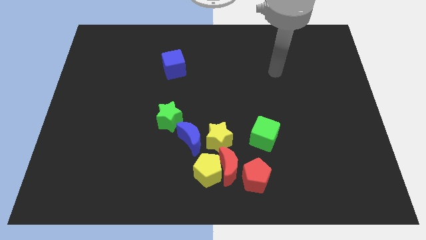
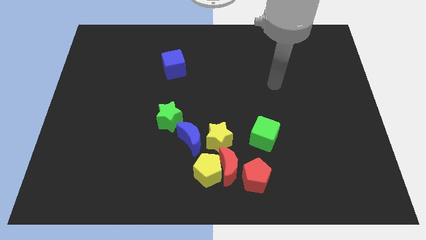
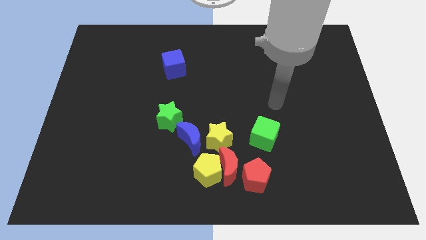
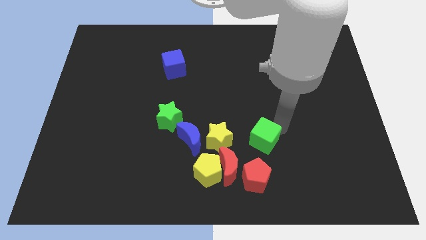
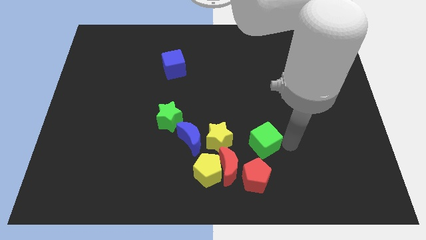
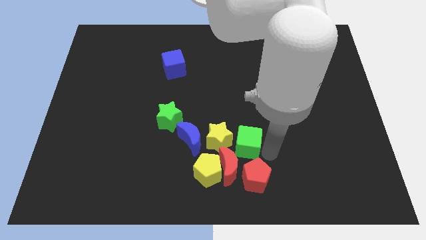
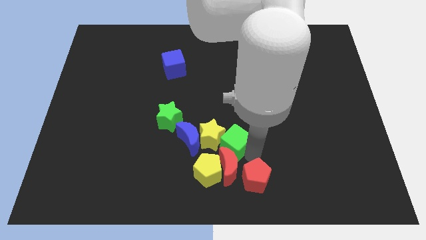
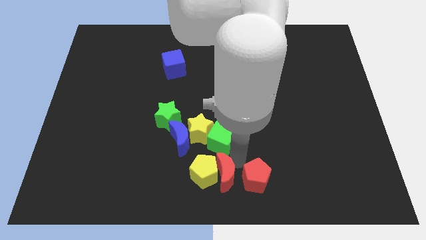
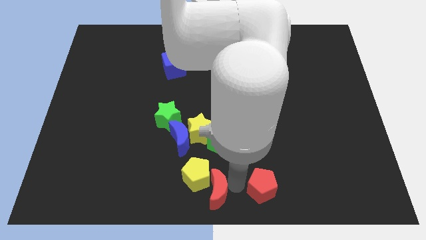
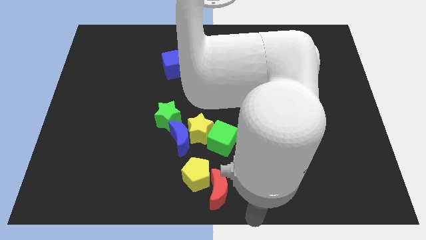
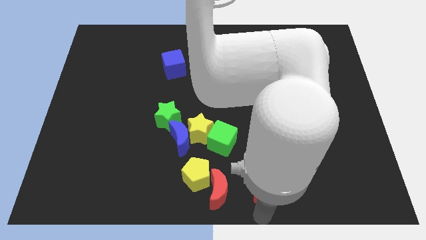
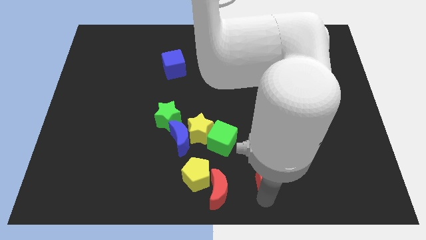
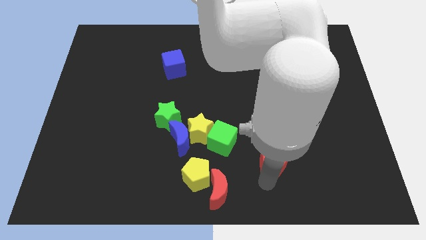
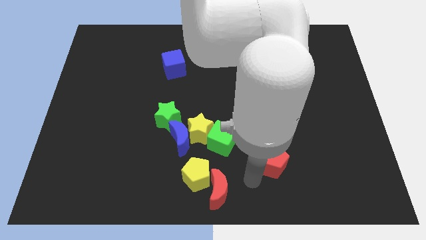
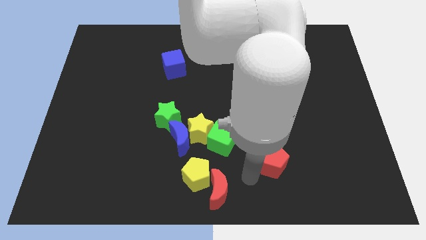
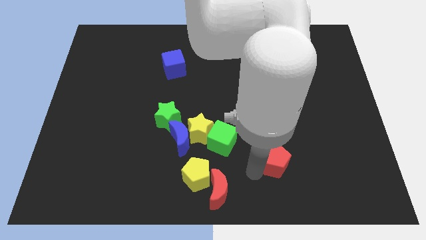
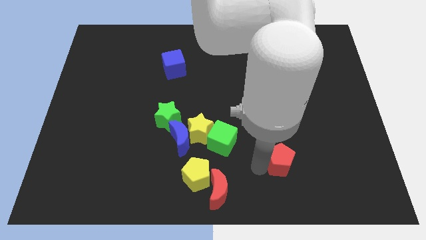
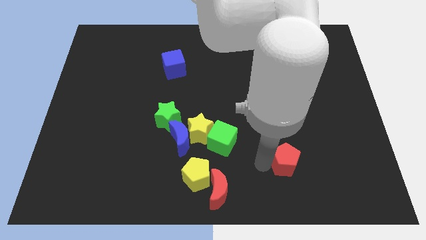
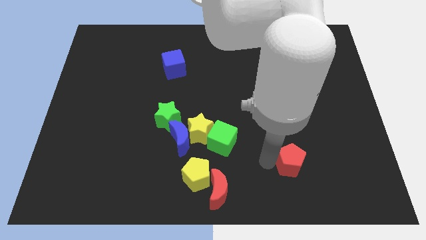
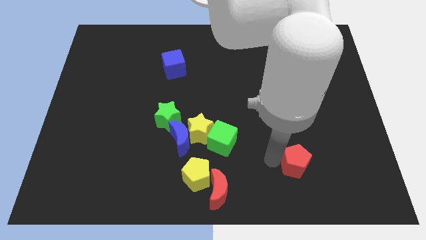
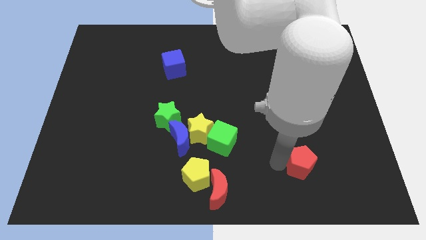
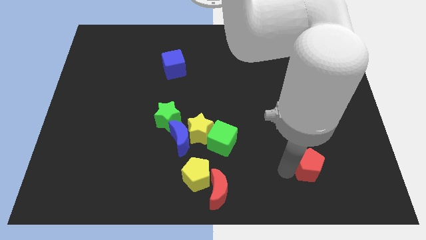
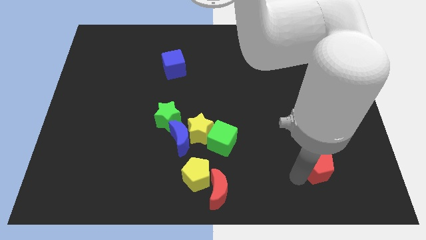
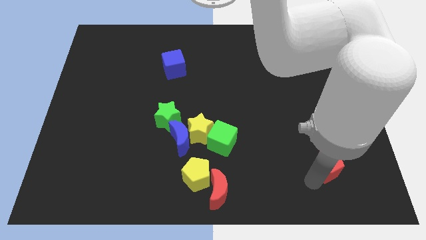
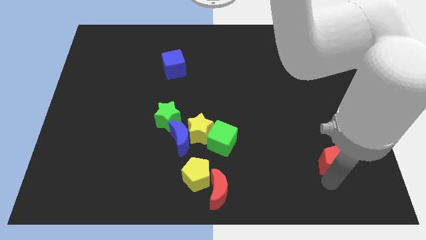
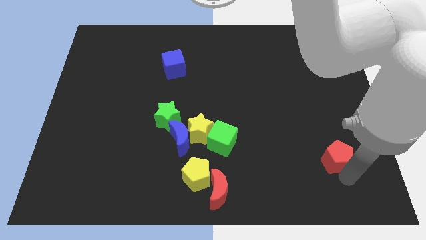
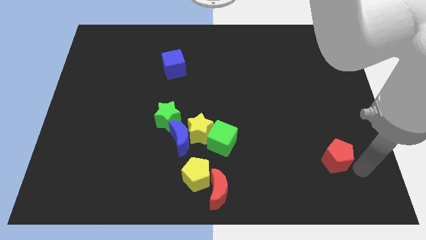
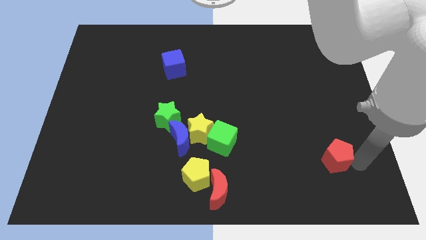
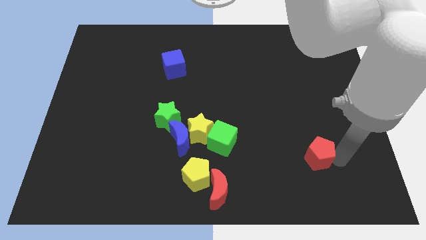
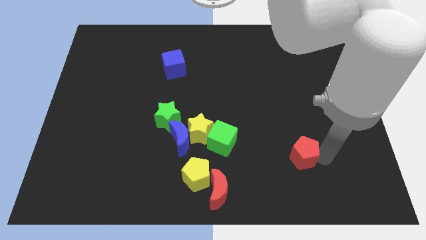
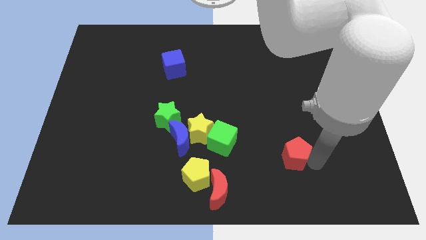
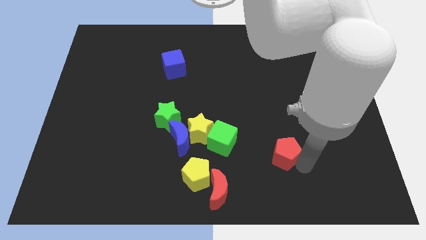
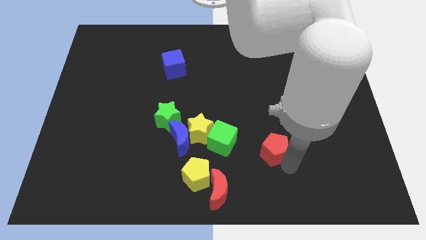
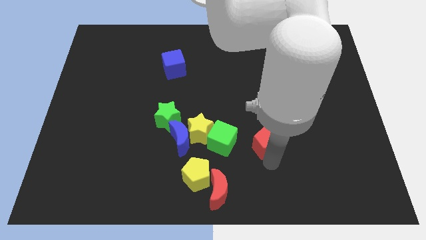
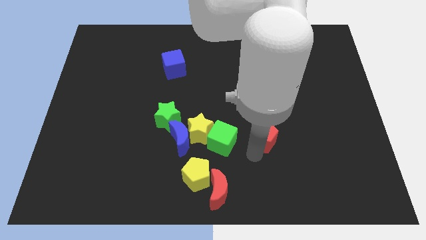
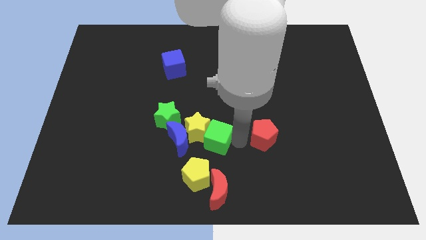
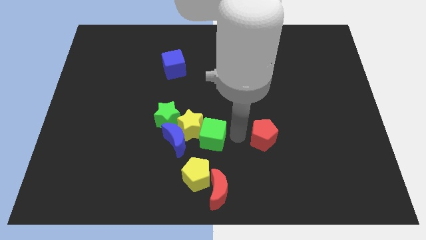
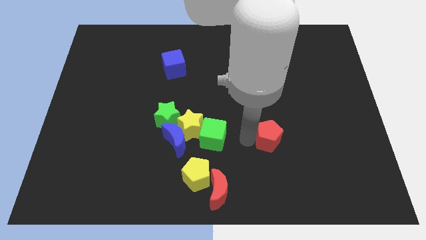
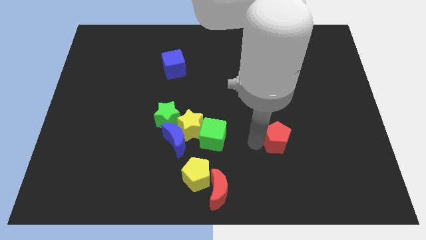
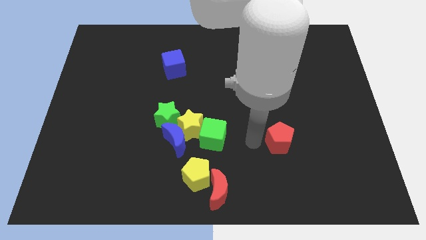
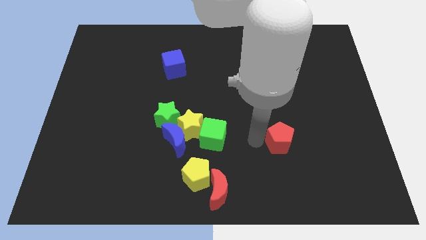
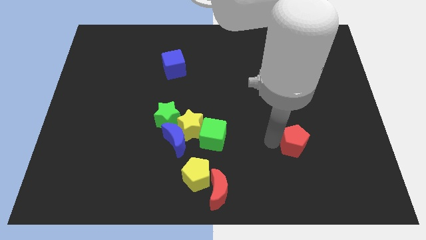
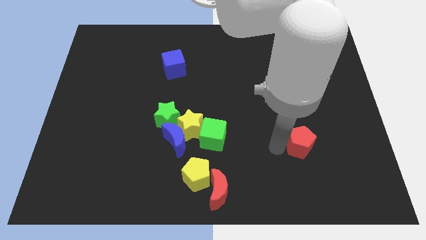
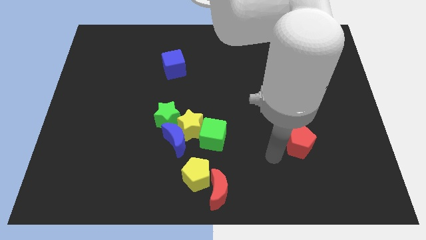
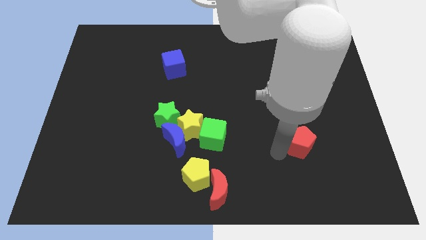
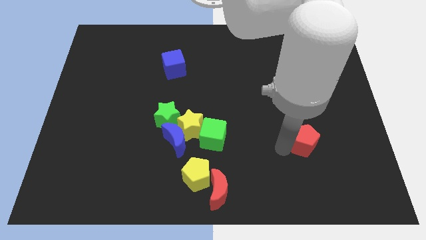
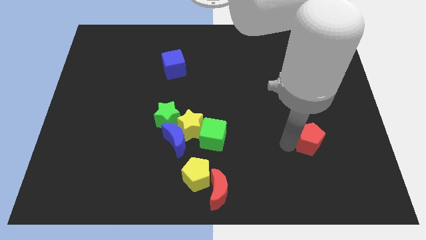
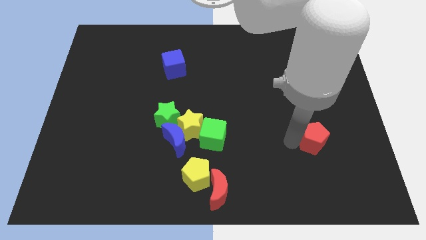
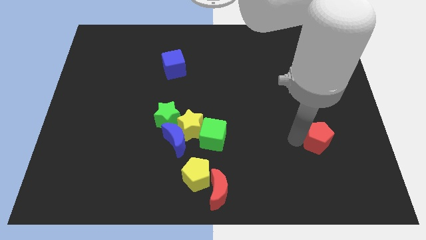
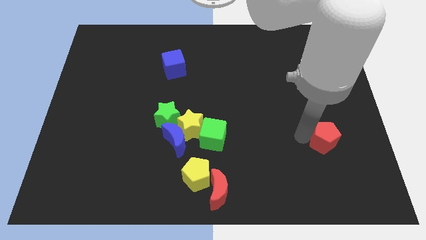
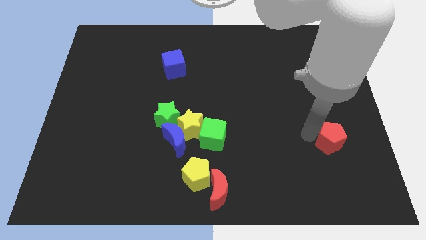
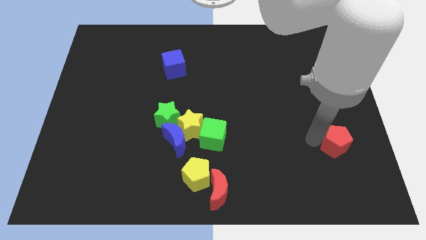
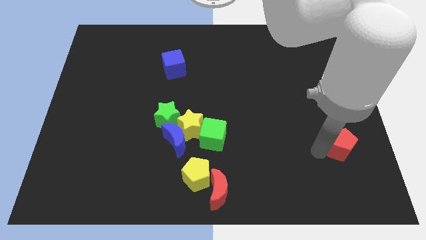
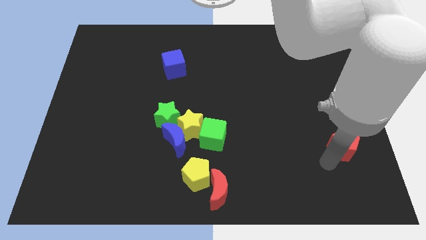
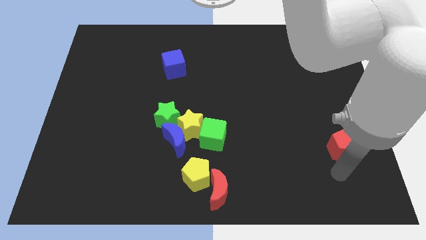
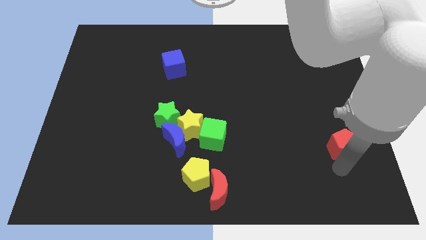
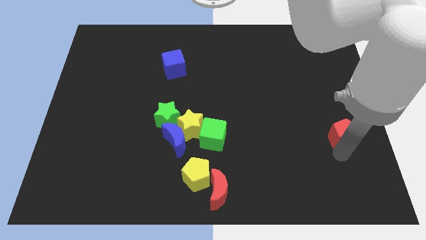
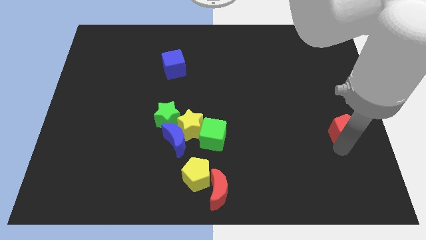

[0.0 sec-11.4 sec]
push the red pentagon to the right side

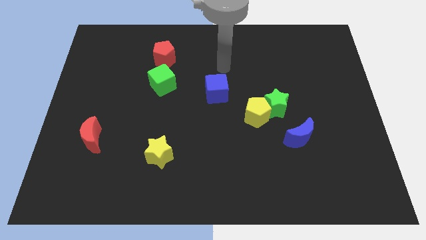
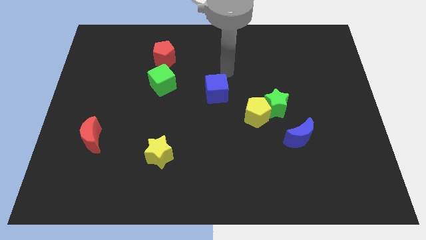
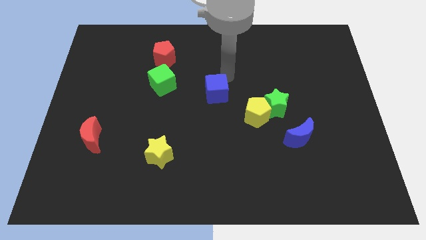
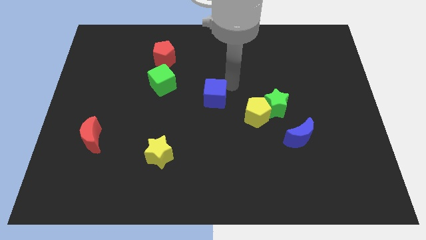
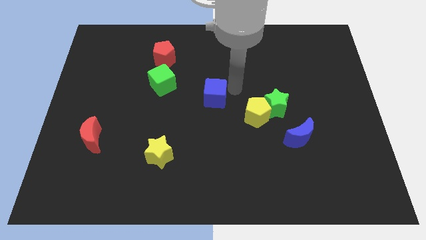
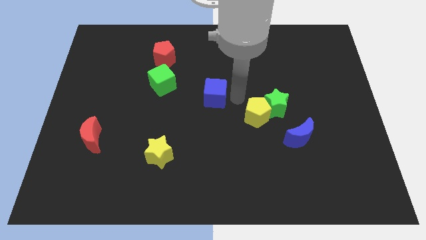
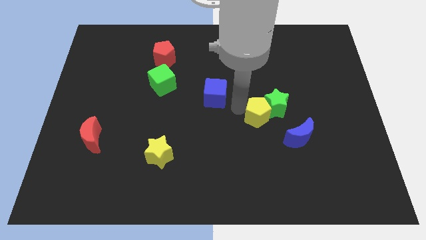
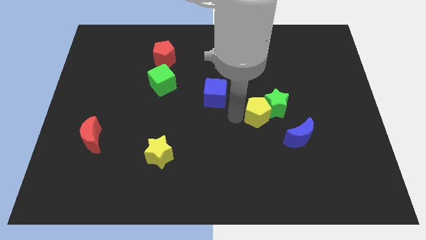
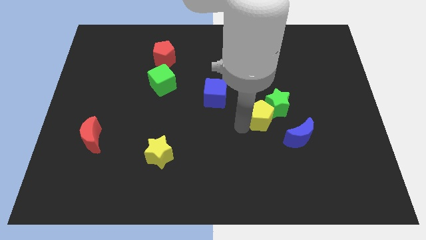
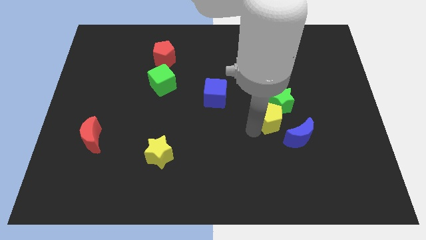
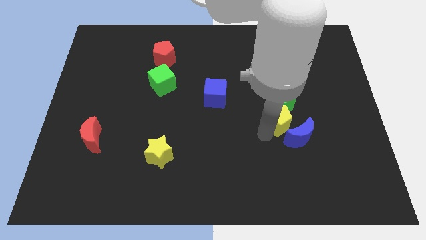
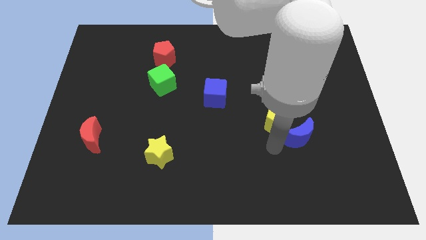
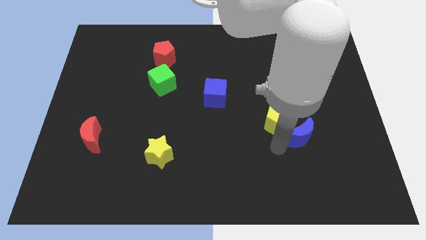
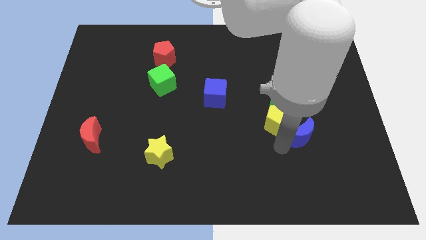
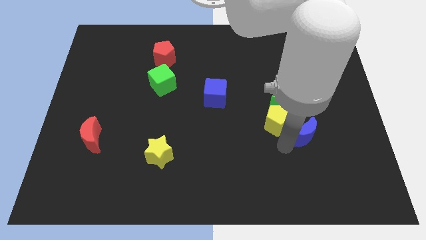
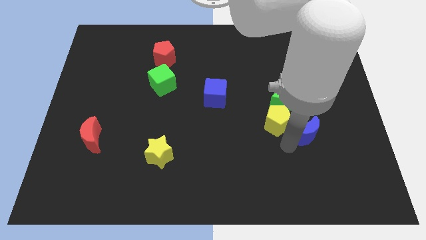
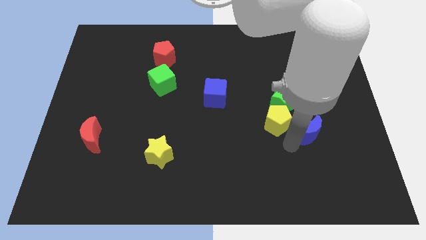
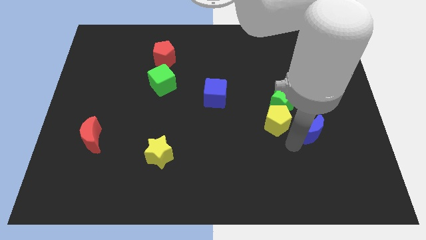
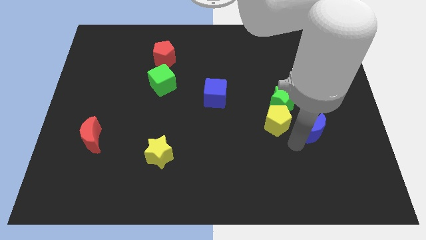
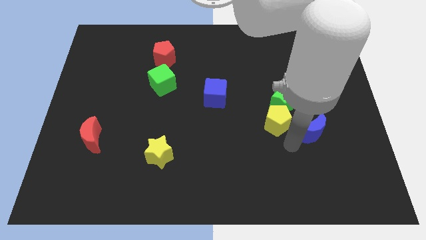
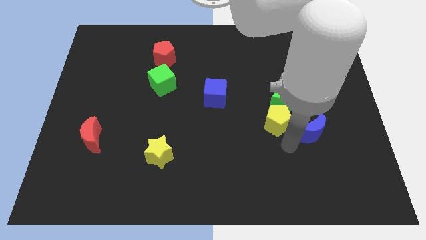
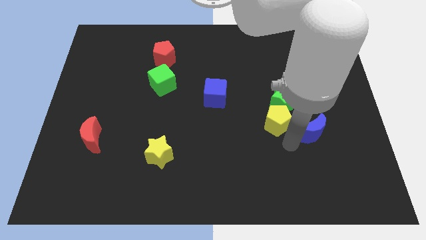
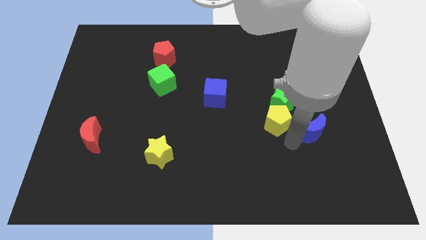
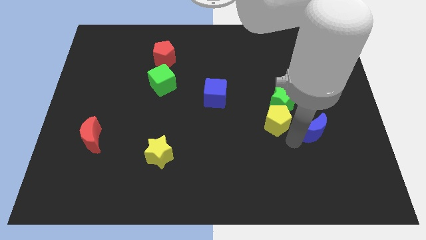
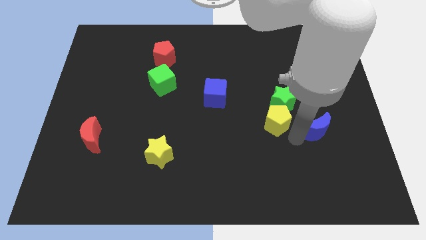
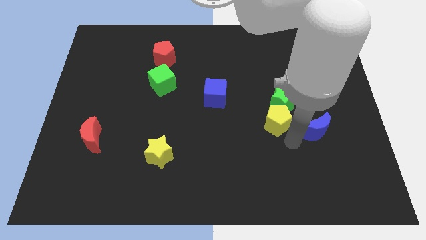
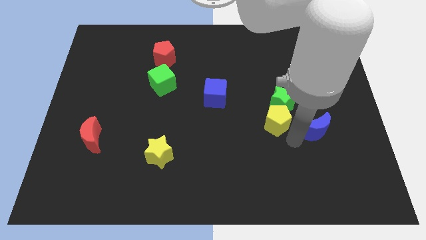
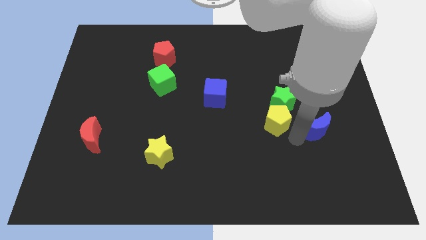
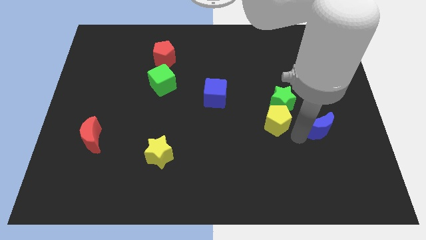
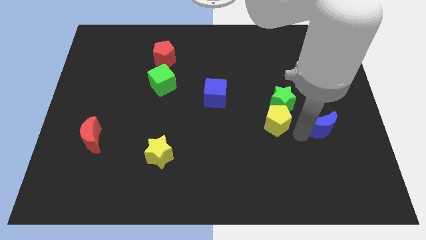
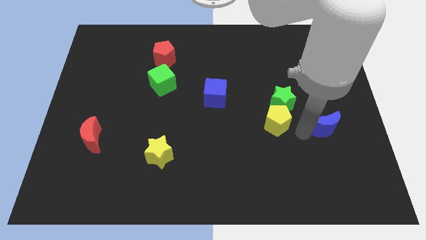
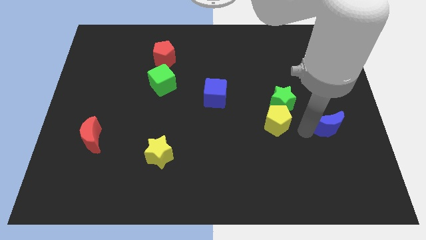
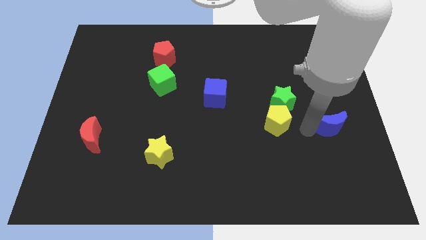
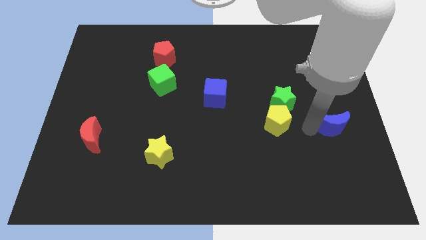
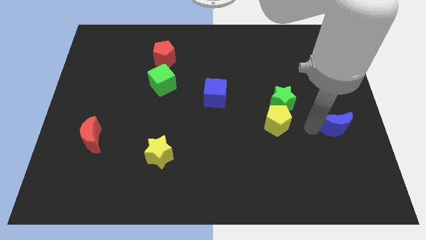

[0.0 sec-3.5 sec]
slide the blue moon to the right side
